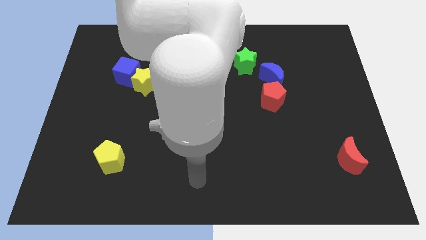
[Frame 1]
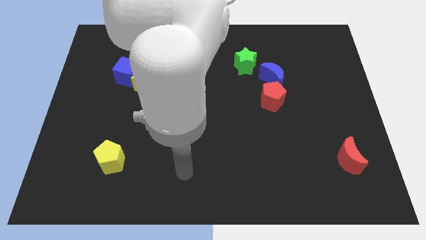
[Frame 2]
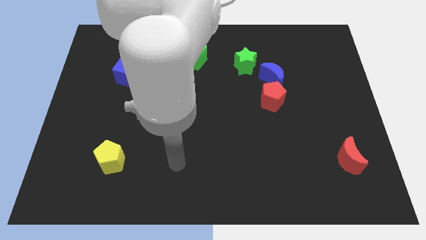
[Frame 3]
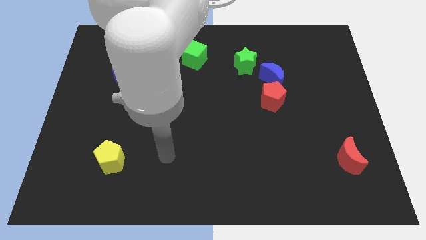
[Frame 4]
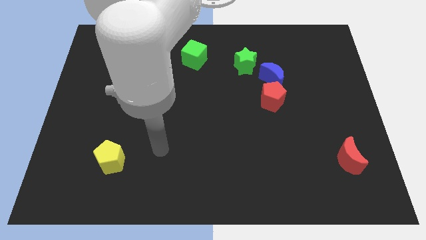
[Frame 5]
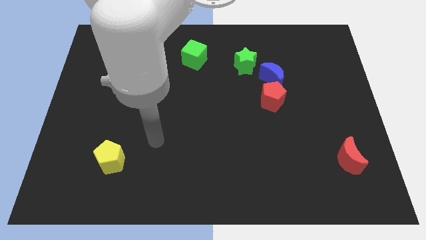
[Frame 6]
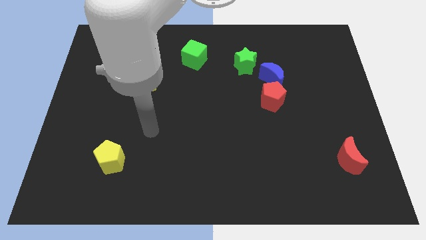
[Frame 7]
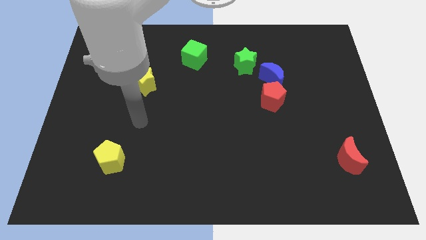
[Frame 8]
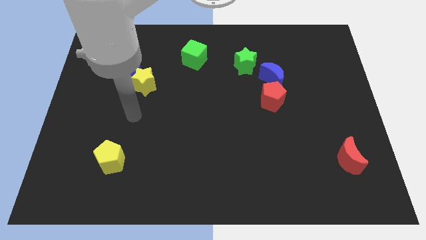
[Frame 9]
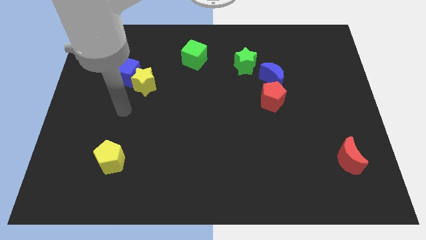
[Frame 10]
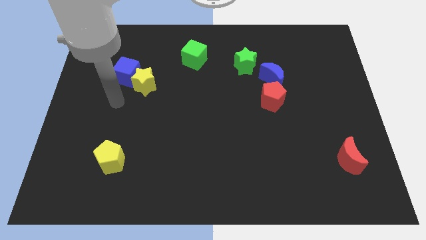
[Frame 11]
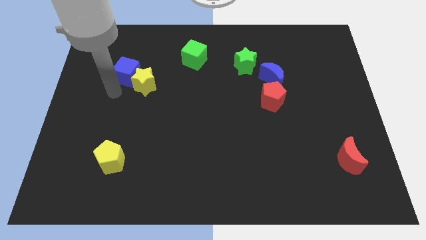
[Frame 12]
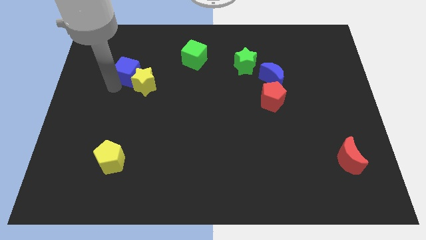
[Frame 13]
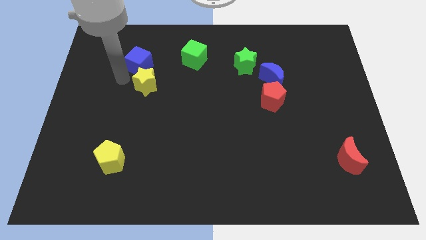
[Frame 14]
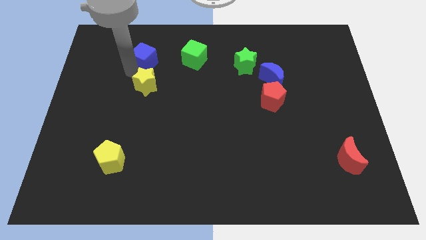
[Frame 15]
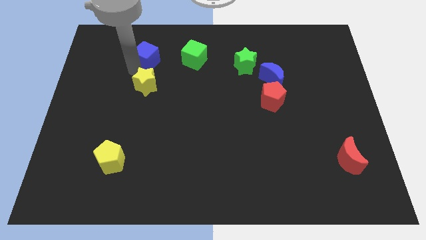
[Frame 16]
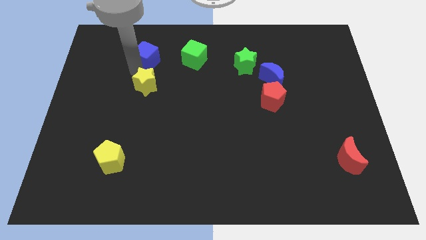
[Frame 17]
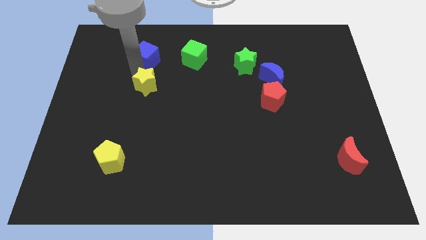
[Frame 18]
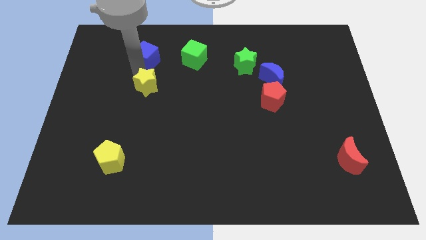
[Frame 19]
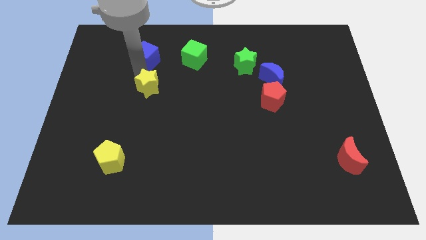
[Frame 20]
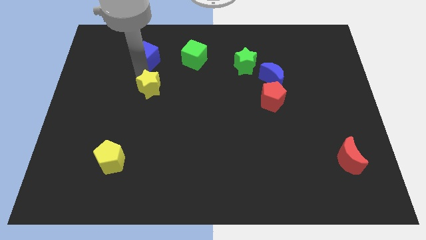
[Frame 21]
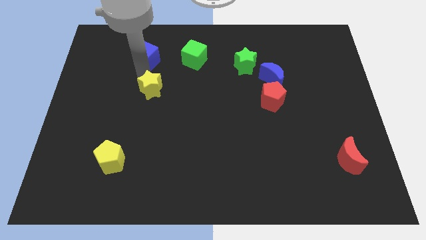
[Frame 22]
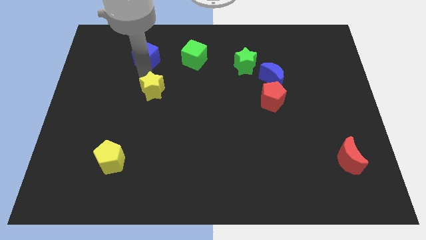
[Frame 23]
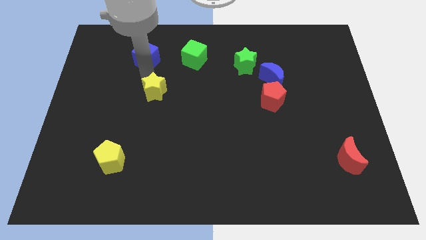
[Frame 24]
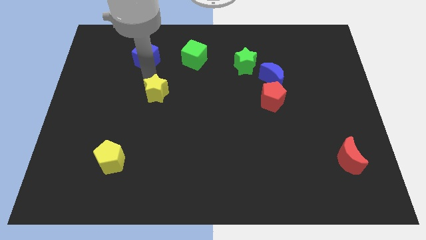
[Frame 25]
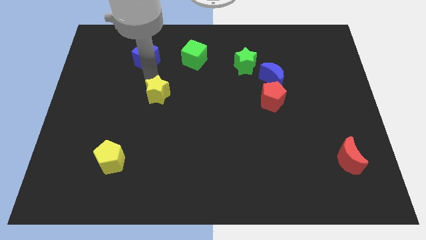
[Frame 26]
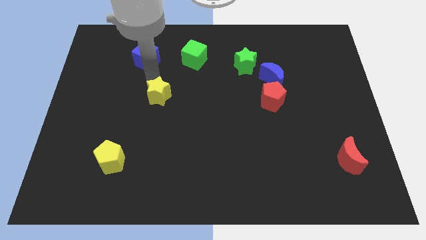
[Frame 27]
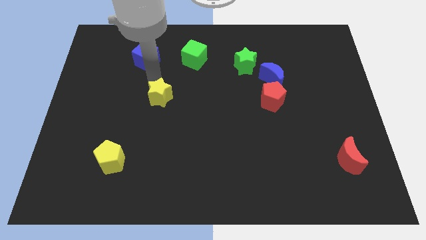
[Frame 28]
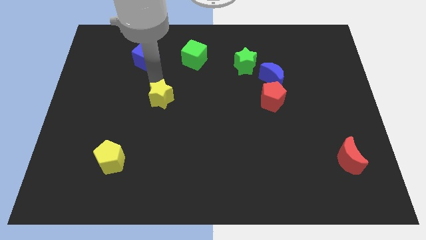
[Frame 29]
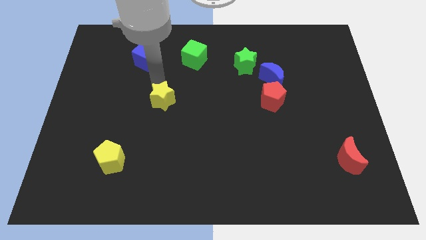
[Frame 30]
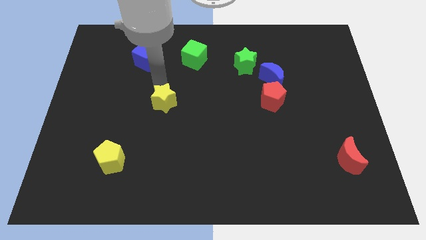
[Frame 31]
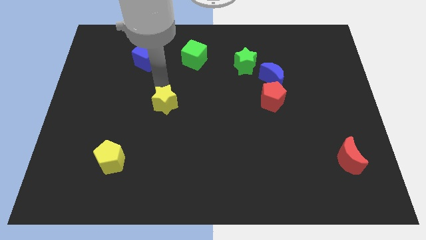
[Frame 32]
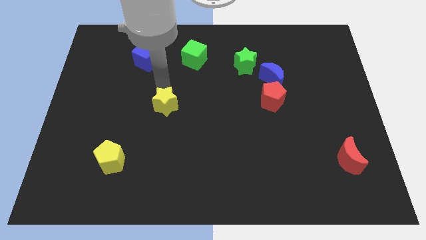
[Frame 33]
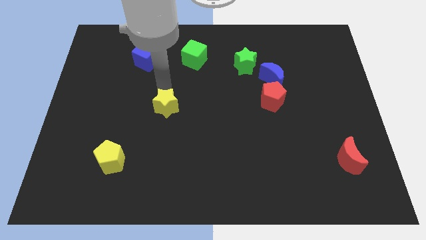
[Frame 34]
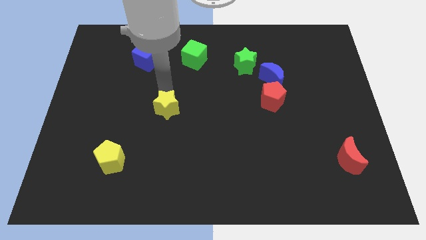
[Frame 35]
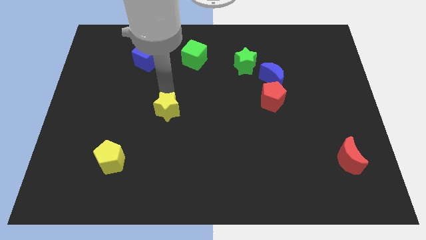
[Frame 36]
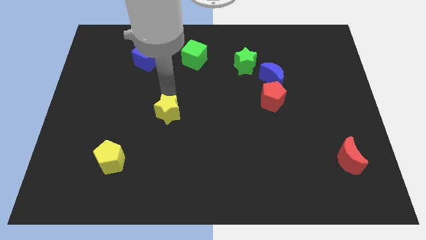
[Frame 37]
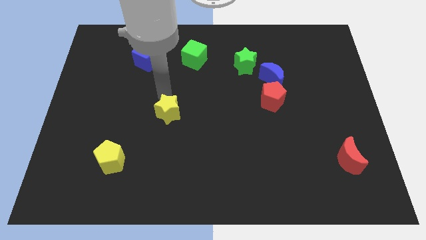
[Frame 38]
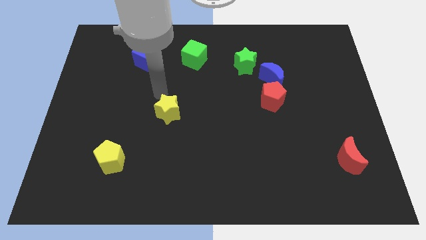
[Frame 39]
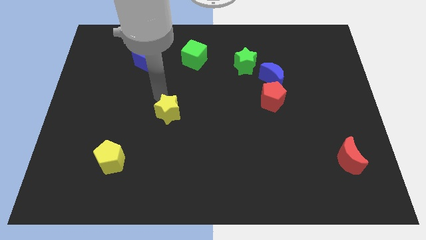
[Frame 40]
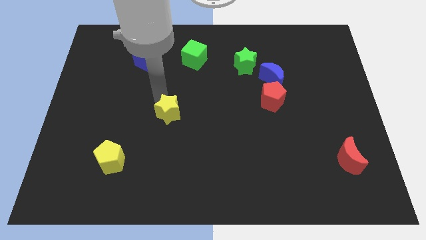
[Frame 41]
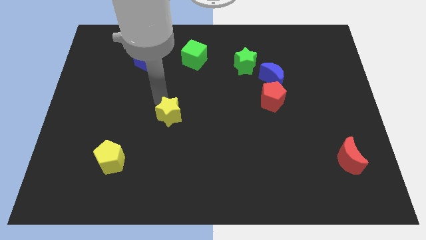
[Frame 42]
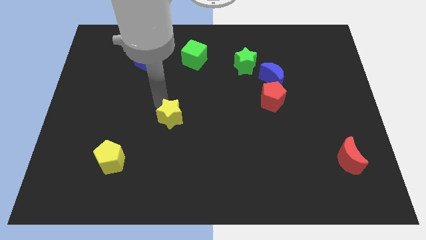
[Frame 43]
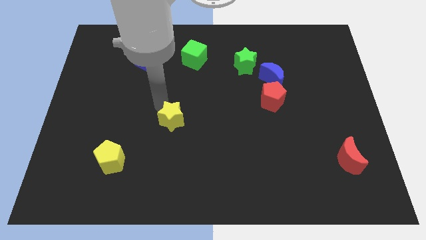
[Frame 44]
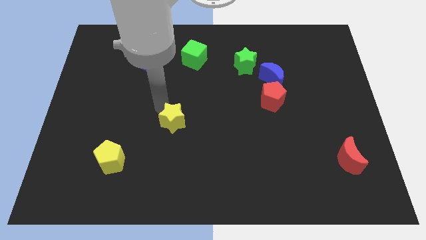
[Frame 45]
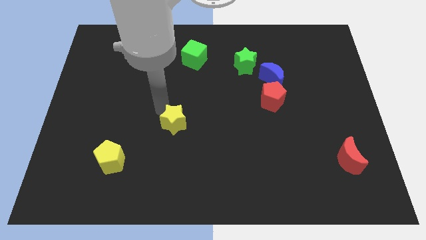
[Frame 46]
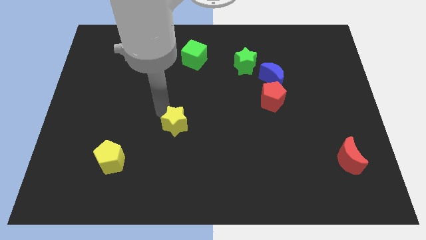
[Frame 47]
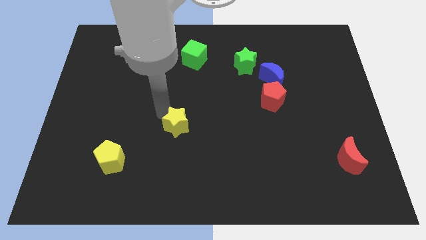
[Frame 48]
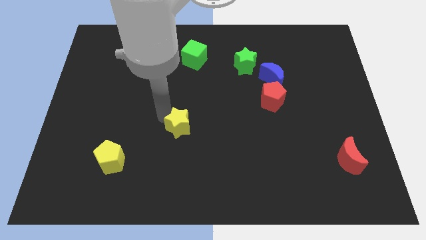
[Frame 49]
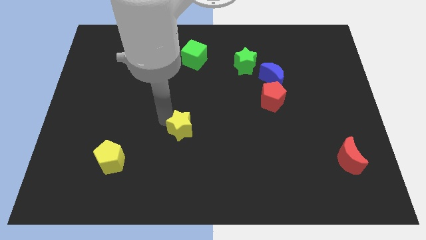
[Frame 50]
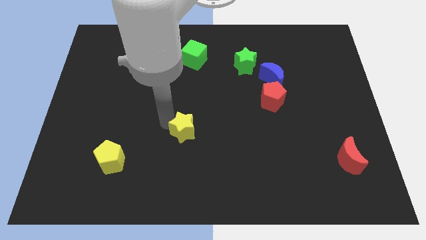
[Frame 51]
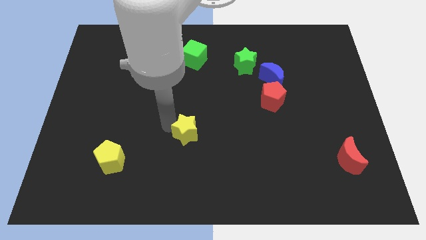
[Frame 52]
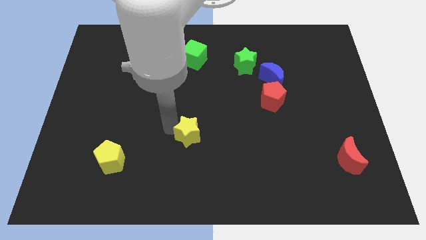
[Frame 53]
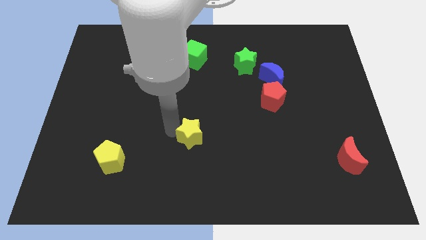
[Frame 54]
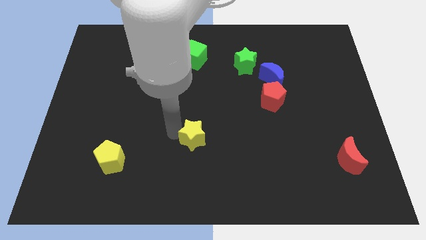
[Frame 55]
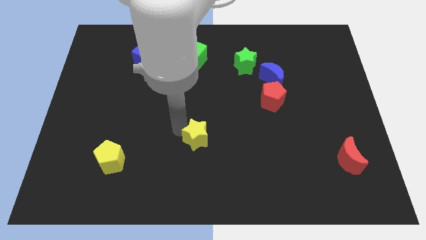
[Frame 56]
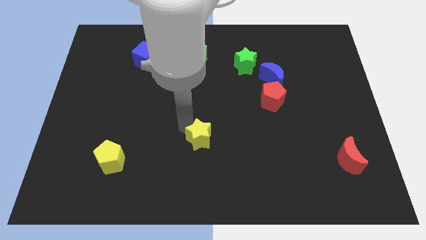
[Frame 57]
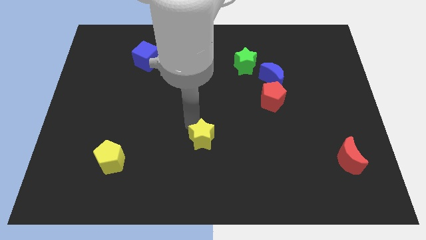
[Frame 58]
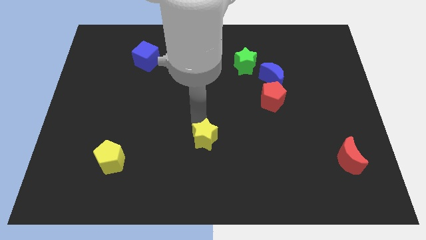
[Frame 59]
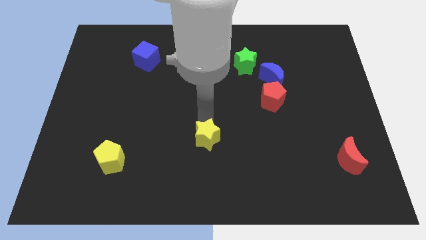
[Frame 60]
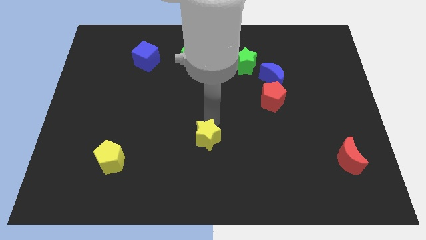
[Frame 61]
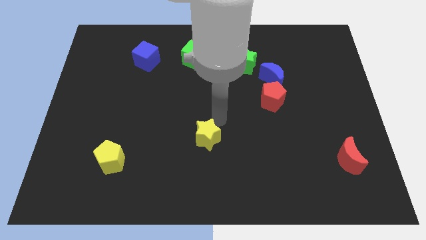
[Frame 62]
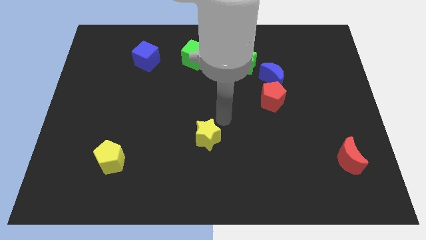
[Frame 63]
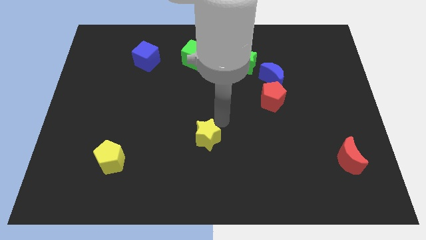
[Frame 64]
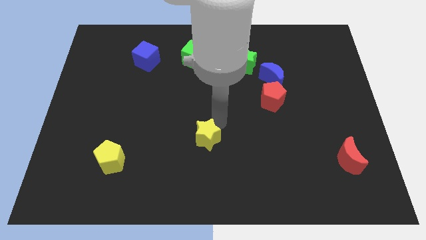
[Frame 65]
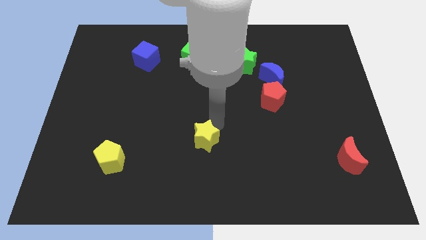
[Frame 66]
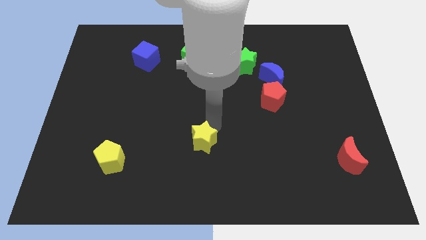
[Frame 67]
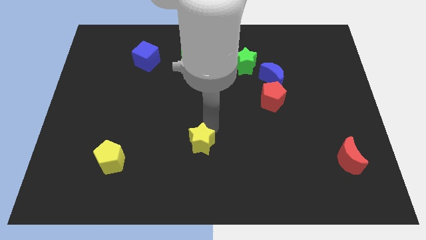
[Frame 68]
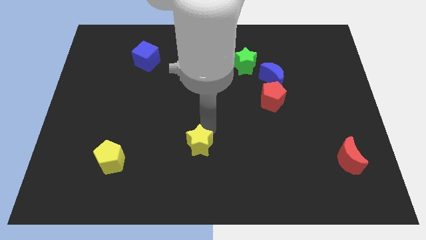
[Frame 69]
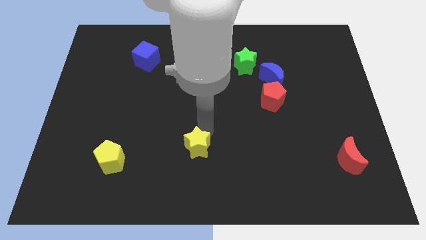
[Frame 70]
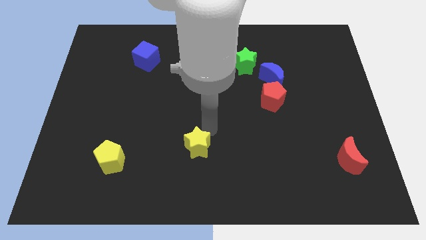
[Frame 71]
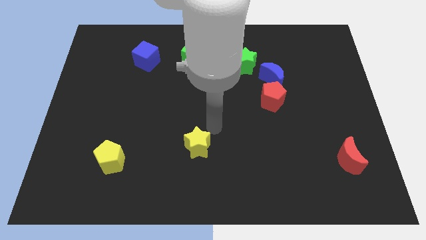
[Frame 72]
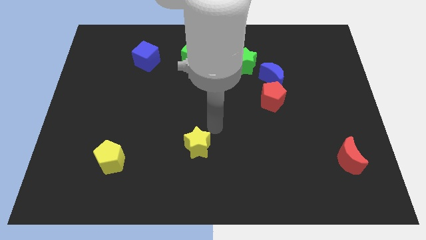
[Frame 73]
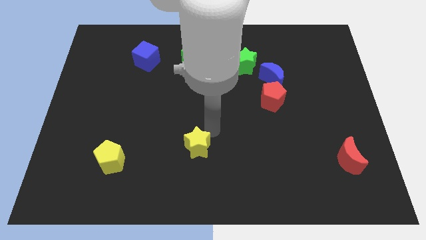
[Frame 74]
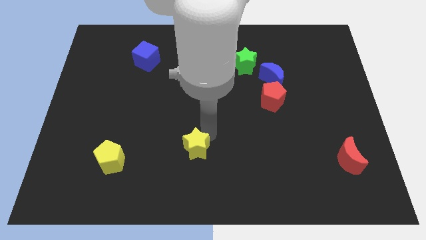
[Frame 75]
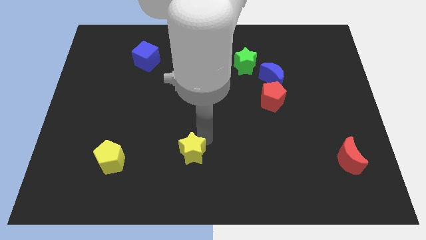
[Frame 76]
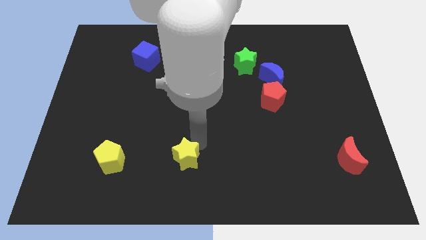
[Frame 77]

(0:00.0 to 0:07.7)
slide the yellow star to the bottom side
